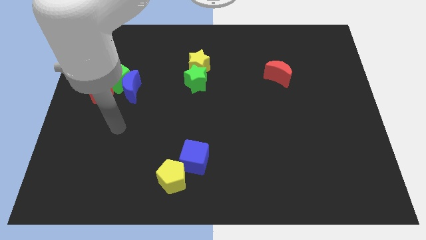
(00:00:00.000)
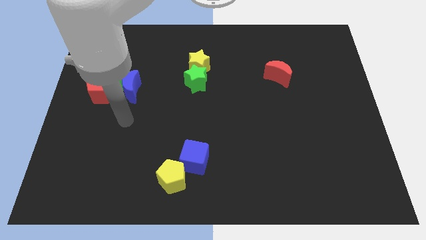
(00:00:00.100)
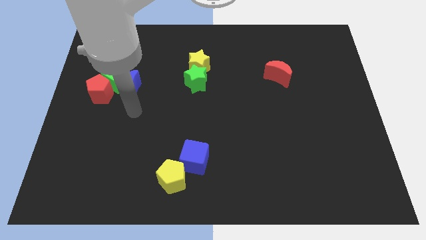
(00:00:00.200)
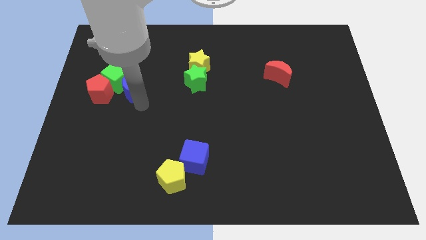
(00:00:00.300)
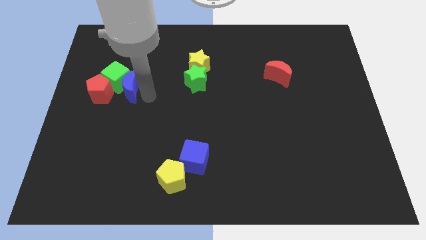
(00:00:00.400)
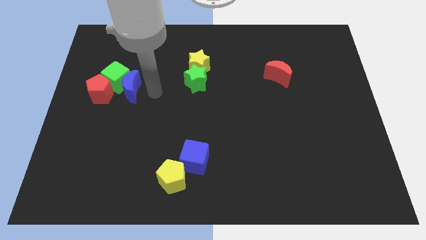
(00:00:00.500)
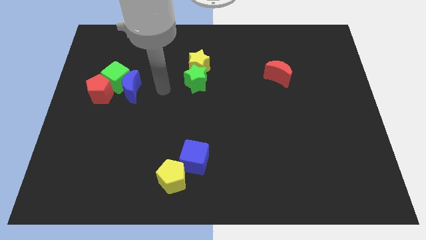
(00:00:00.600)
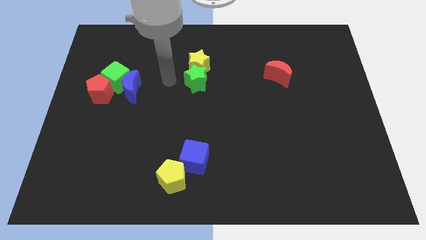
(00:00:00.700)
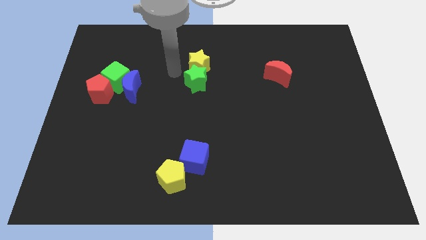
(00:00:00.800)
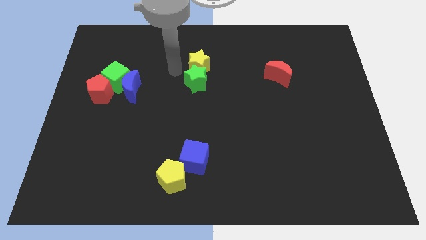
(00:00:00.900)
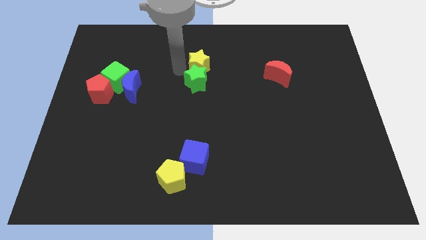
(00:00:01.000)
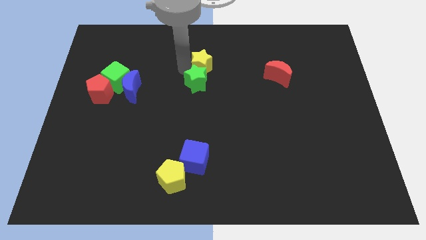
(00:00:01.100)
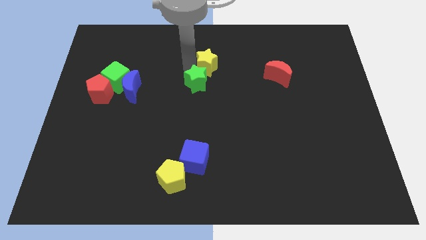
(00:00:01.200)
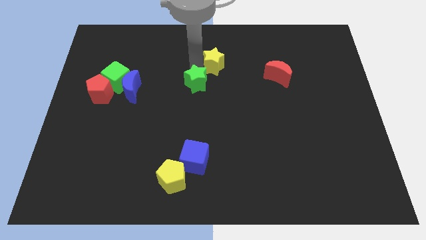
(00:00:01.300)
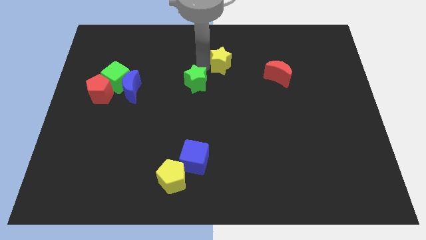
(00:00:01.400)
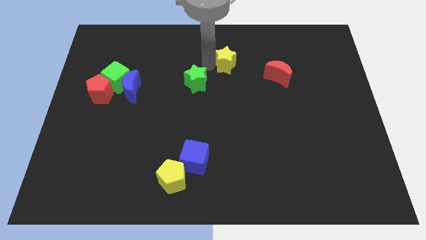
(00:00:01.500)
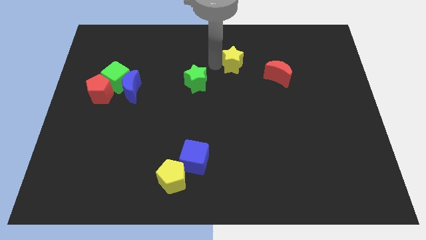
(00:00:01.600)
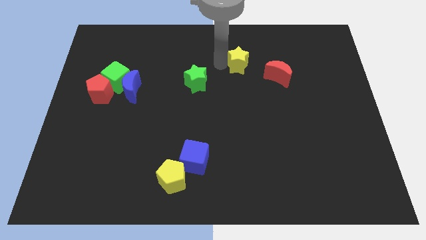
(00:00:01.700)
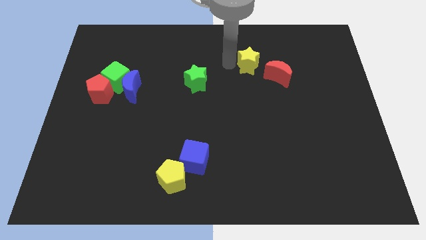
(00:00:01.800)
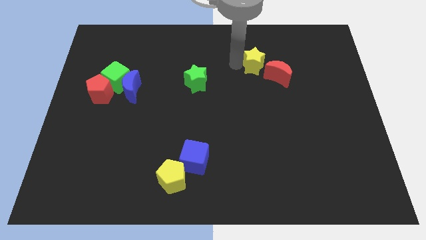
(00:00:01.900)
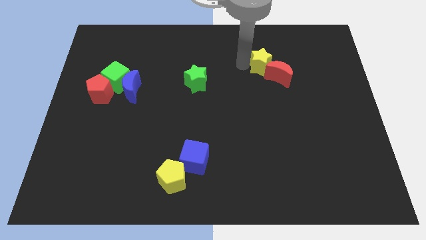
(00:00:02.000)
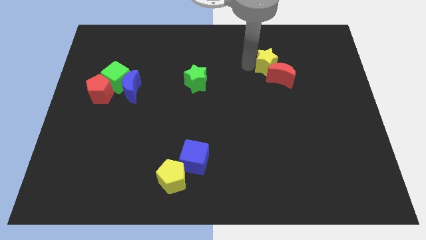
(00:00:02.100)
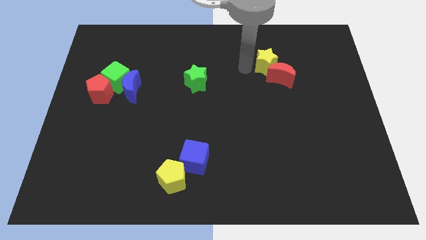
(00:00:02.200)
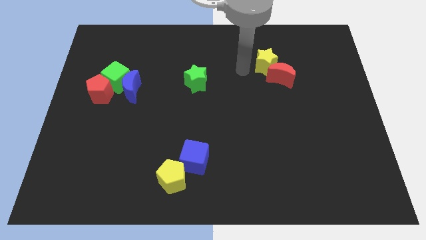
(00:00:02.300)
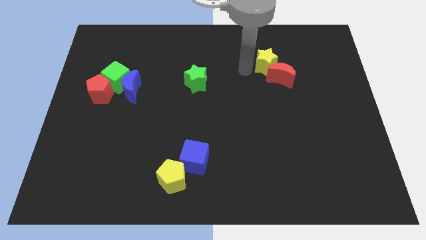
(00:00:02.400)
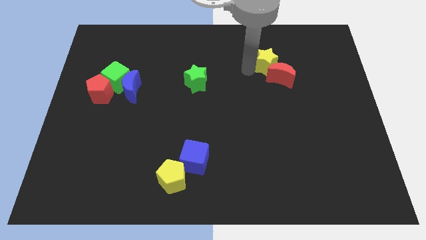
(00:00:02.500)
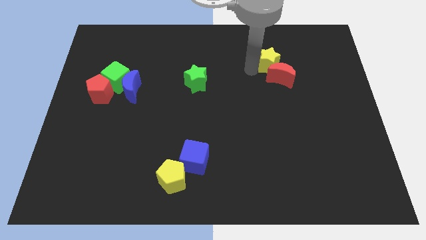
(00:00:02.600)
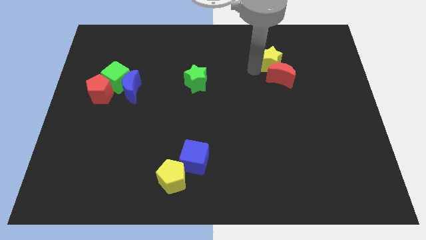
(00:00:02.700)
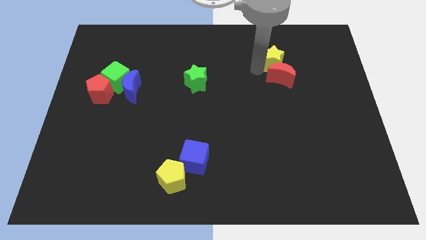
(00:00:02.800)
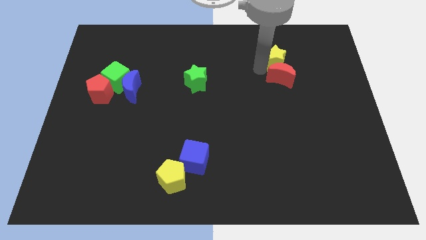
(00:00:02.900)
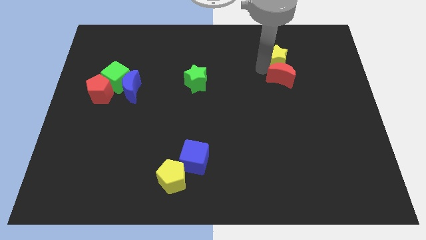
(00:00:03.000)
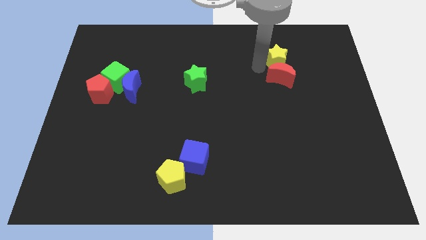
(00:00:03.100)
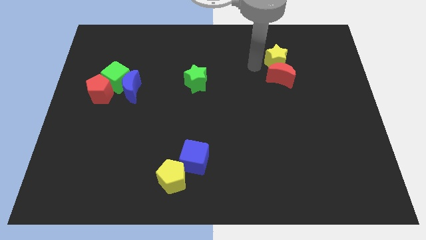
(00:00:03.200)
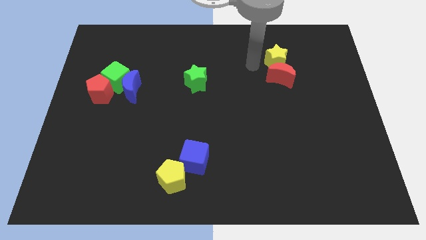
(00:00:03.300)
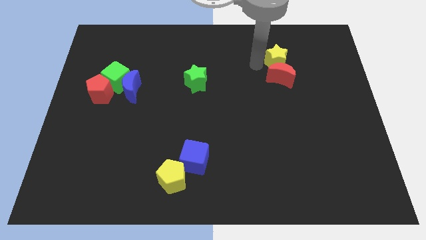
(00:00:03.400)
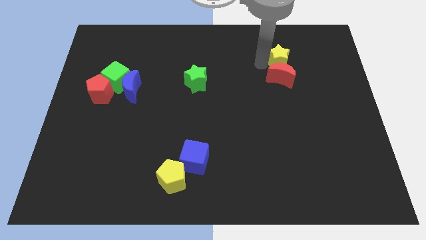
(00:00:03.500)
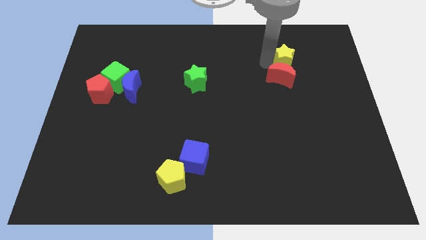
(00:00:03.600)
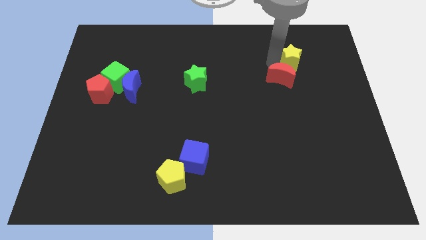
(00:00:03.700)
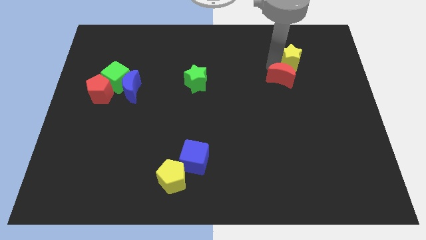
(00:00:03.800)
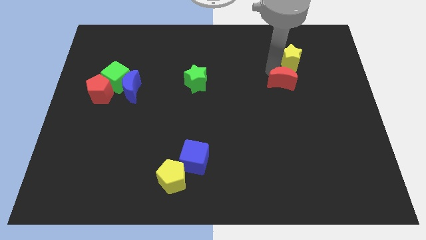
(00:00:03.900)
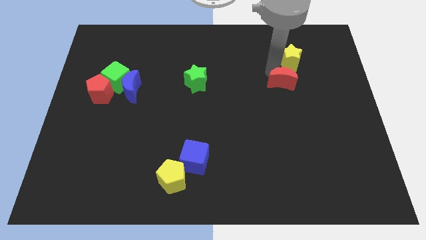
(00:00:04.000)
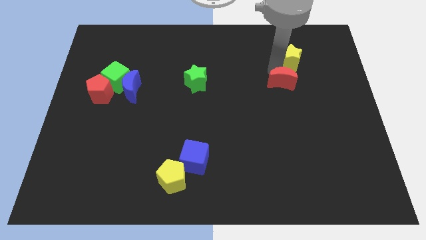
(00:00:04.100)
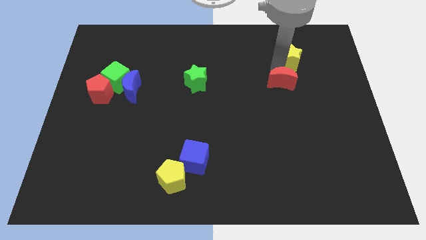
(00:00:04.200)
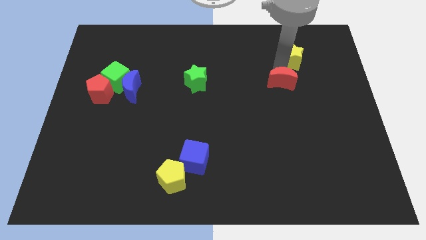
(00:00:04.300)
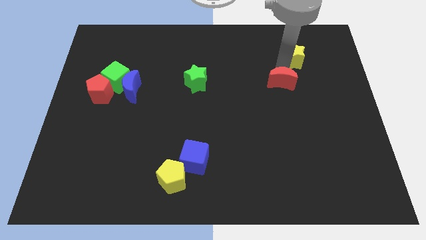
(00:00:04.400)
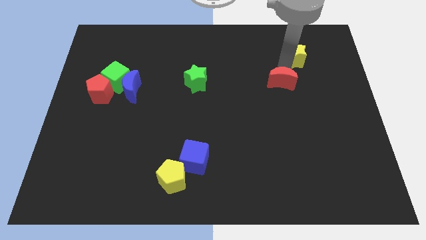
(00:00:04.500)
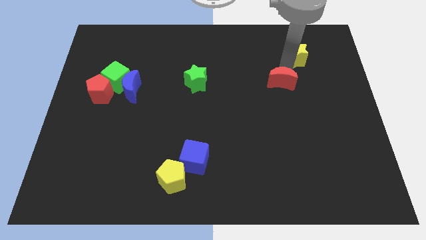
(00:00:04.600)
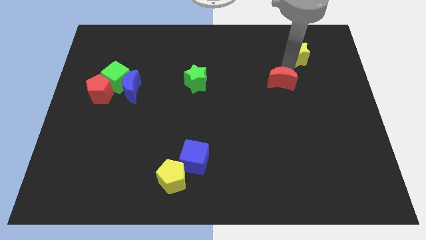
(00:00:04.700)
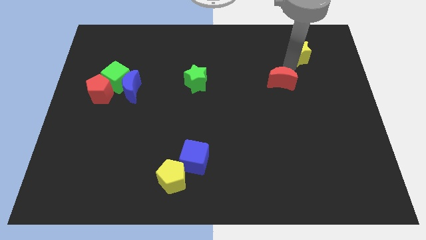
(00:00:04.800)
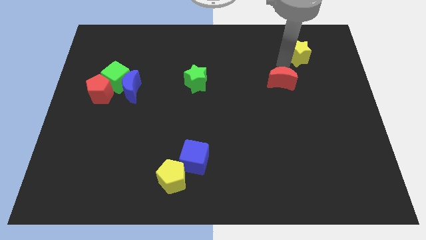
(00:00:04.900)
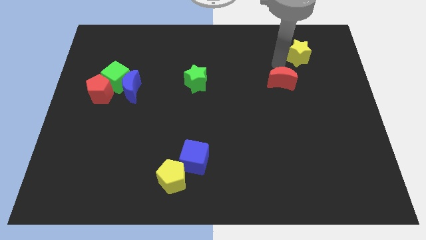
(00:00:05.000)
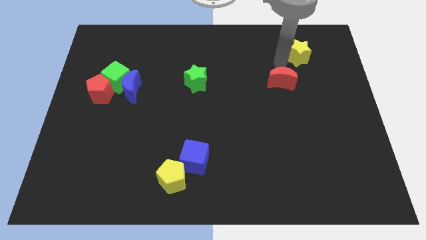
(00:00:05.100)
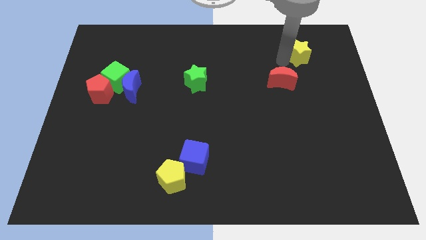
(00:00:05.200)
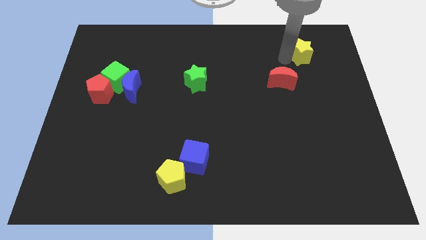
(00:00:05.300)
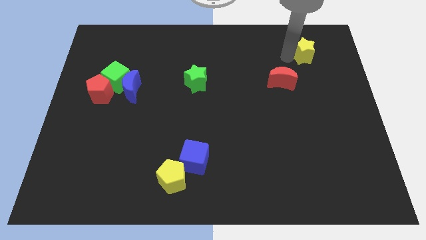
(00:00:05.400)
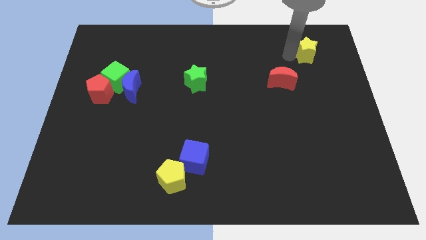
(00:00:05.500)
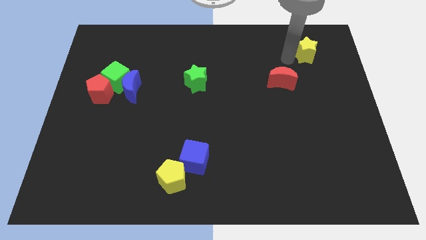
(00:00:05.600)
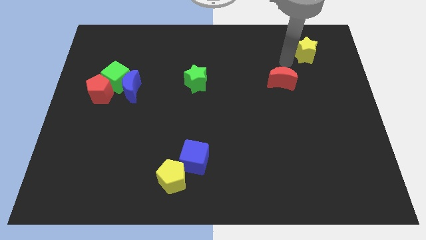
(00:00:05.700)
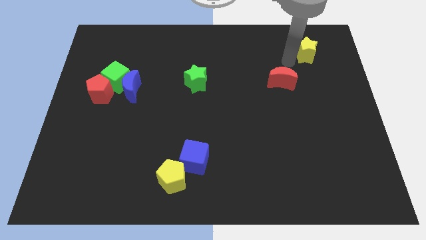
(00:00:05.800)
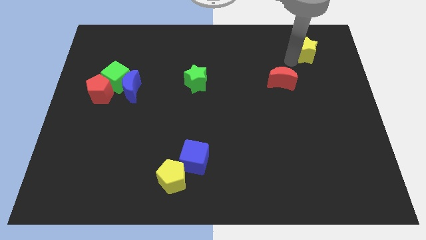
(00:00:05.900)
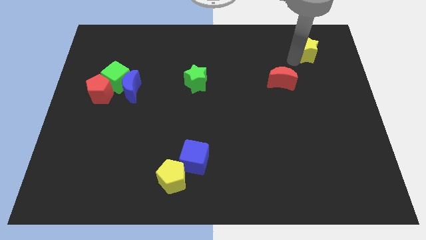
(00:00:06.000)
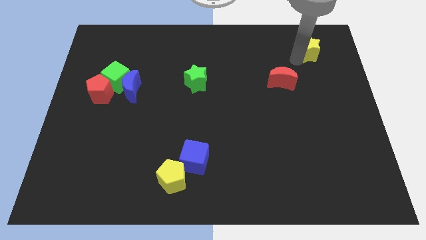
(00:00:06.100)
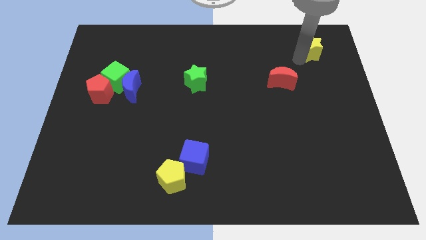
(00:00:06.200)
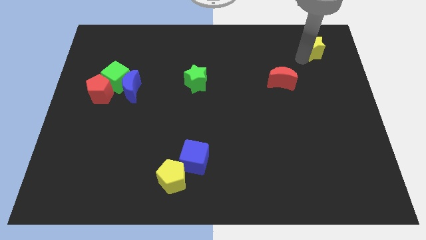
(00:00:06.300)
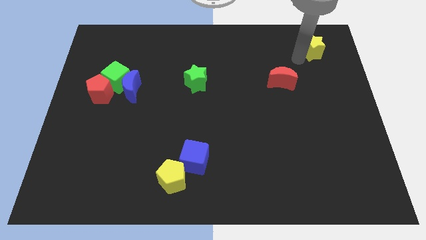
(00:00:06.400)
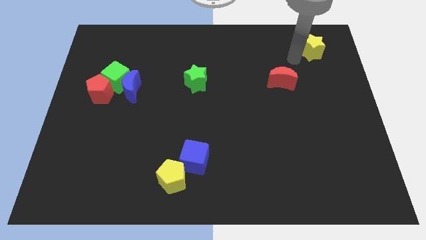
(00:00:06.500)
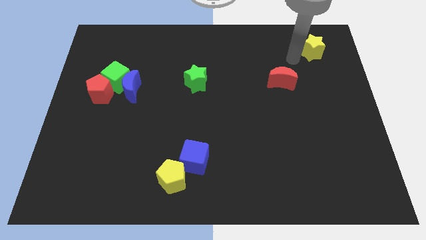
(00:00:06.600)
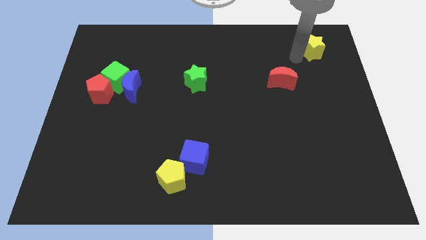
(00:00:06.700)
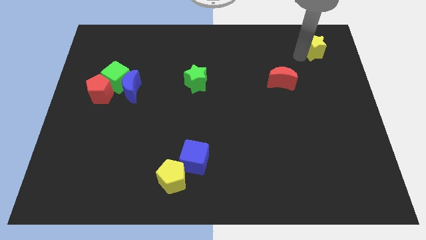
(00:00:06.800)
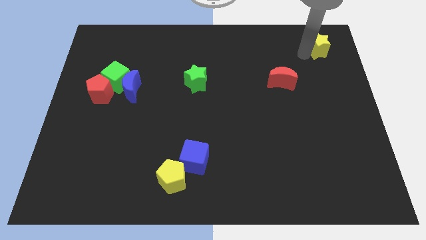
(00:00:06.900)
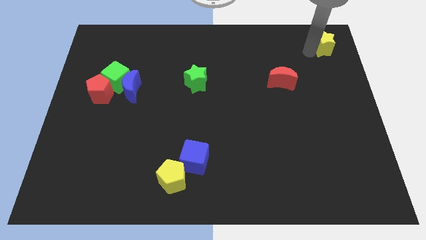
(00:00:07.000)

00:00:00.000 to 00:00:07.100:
move the yellow star to the top right
